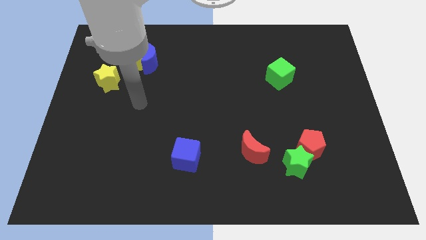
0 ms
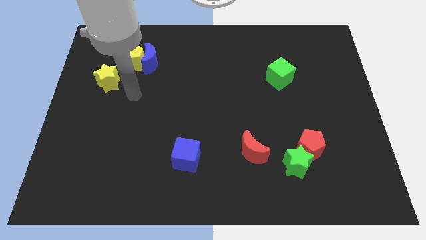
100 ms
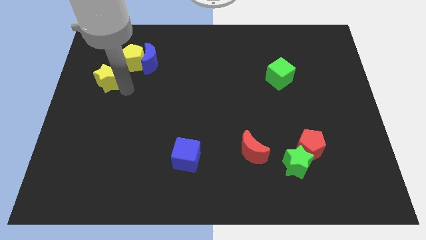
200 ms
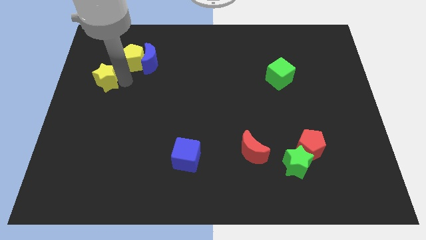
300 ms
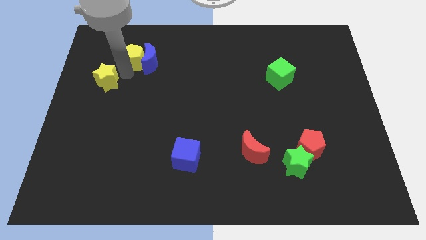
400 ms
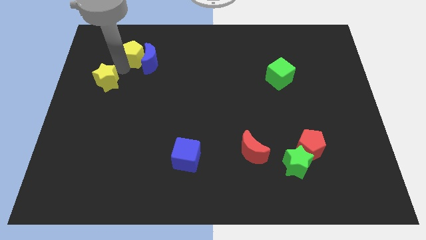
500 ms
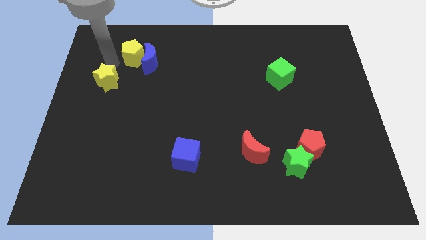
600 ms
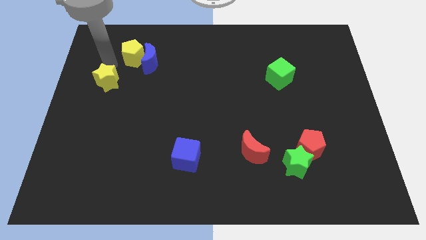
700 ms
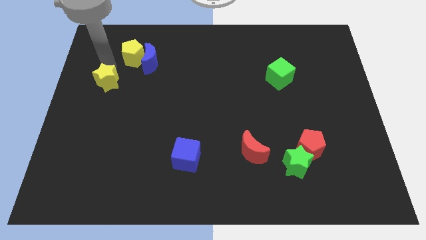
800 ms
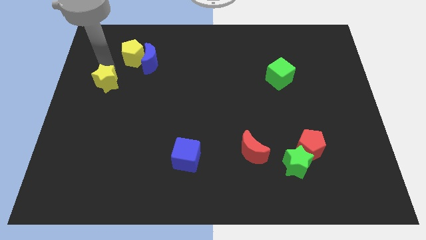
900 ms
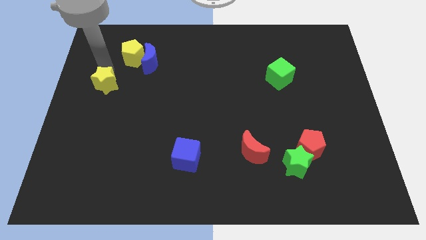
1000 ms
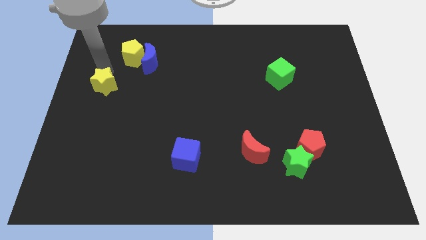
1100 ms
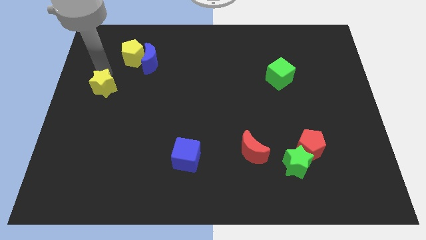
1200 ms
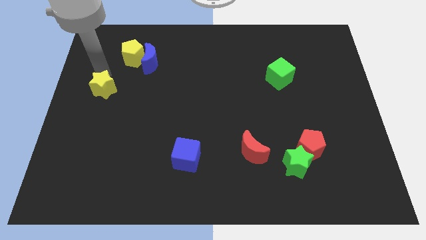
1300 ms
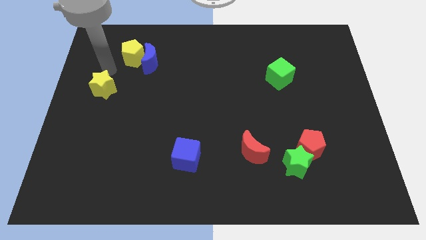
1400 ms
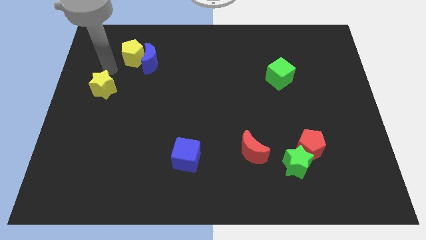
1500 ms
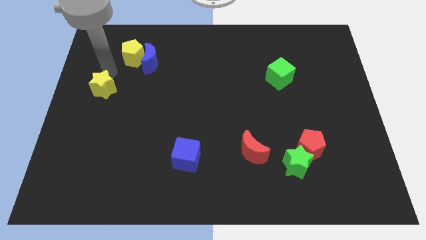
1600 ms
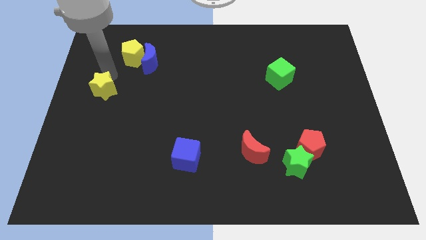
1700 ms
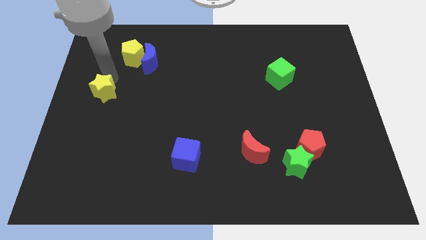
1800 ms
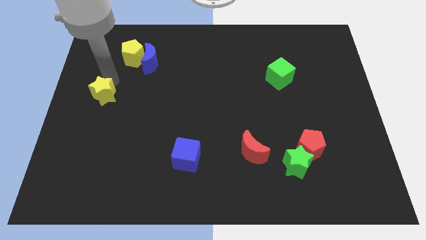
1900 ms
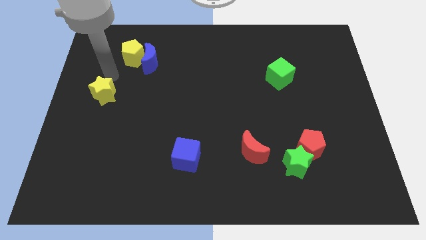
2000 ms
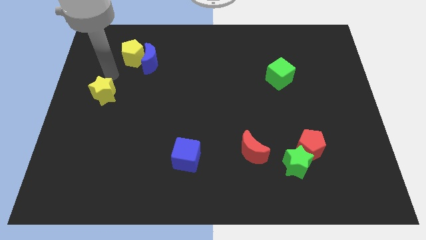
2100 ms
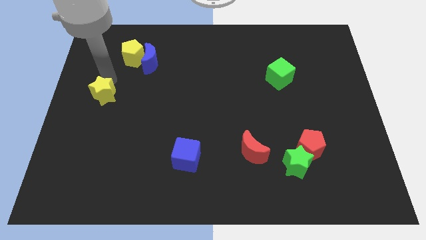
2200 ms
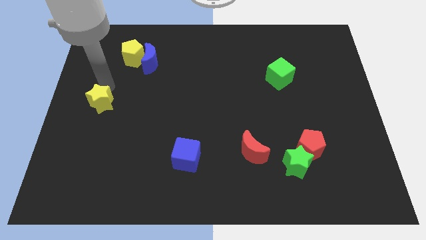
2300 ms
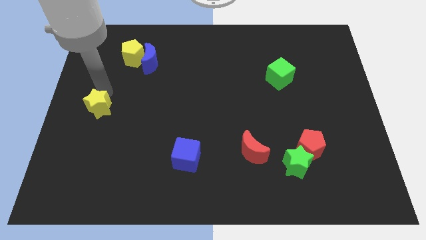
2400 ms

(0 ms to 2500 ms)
slide the yellow star slightly down

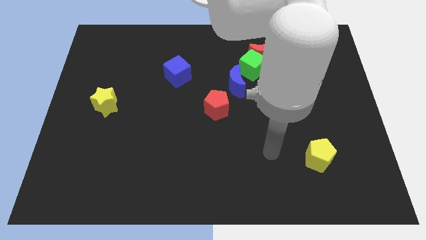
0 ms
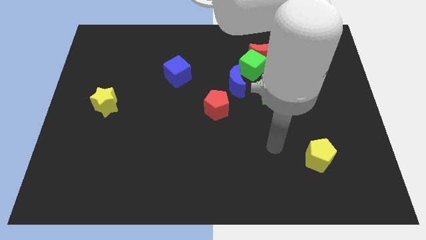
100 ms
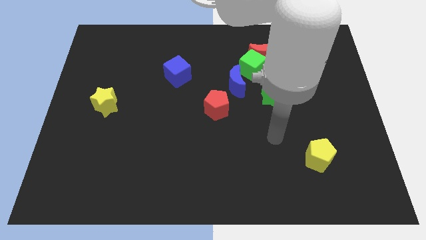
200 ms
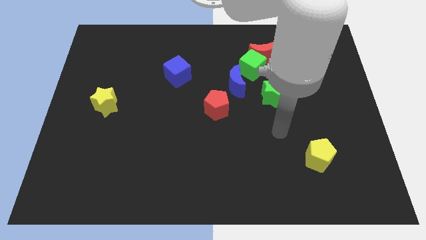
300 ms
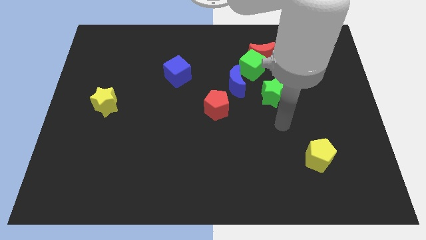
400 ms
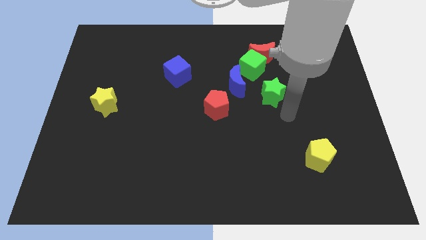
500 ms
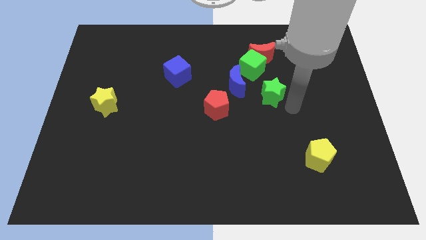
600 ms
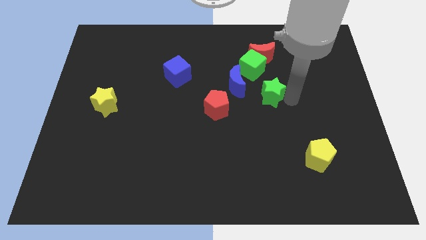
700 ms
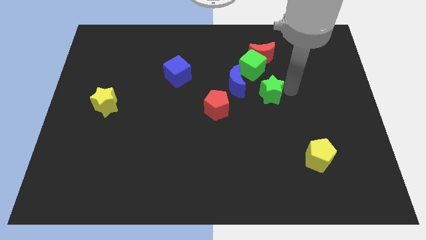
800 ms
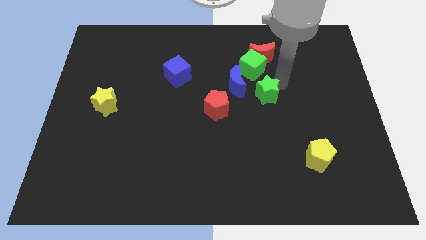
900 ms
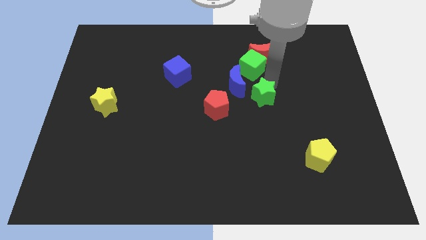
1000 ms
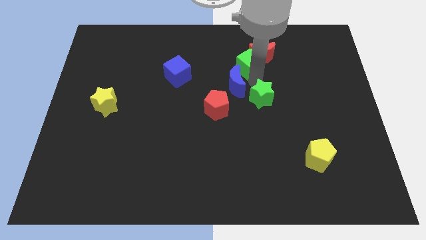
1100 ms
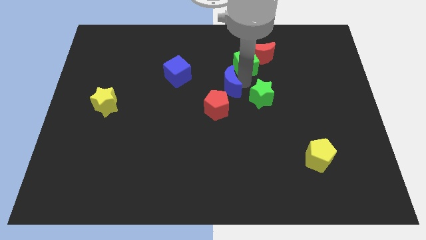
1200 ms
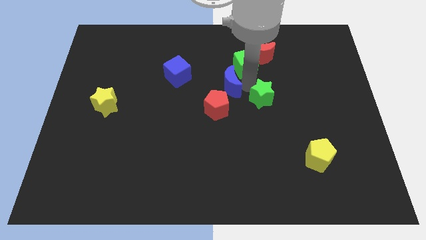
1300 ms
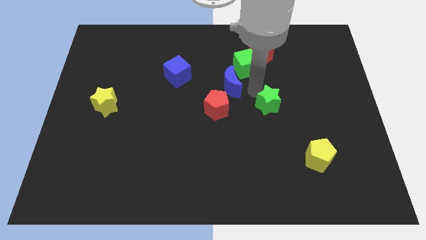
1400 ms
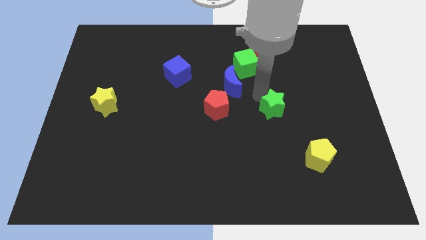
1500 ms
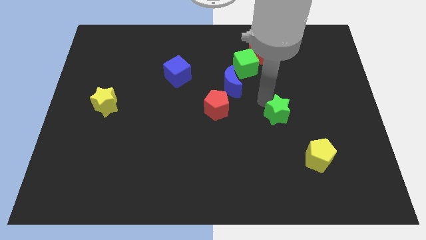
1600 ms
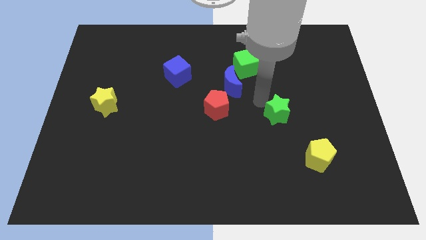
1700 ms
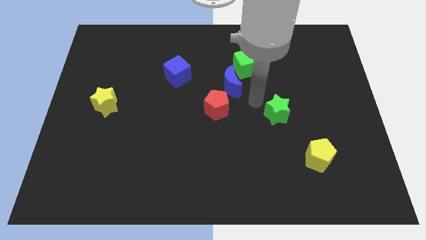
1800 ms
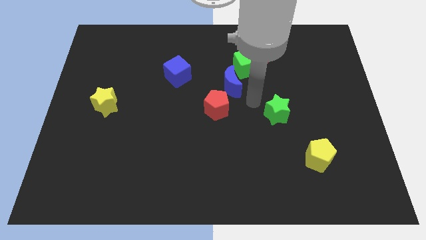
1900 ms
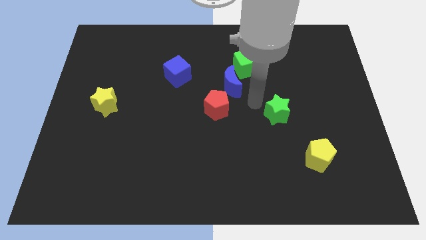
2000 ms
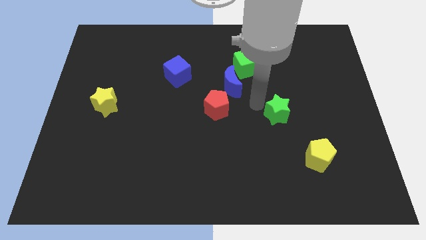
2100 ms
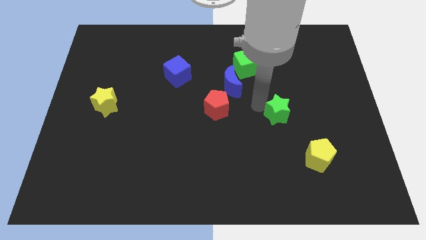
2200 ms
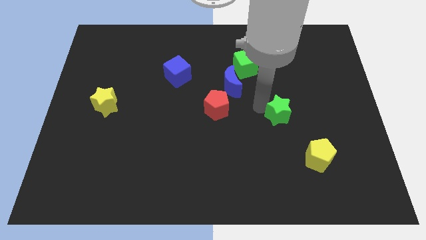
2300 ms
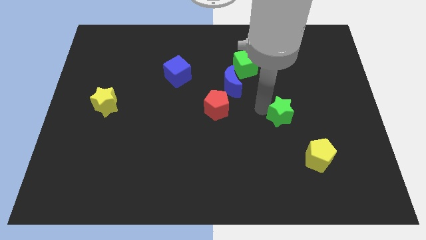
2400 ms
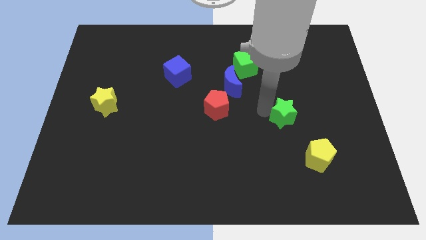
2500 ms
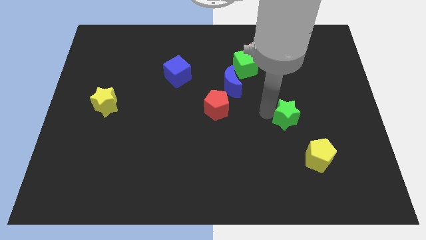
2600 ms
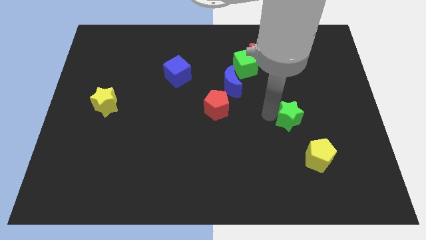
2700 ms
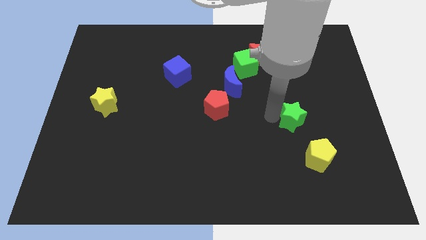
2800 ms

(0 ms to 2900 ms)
slightly push the green star downwards and then to the right

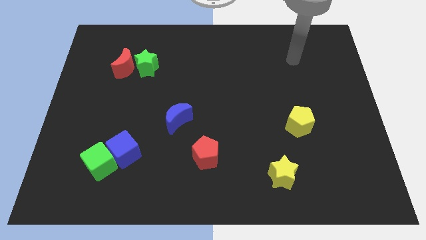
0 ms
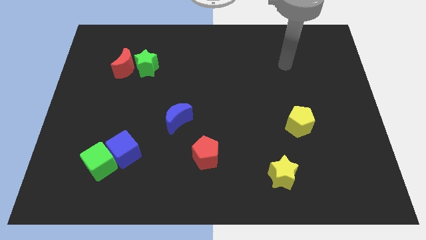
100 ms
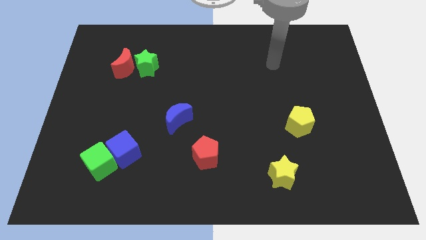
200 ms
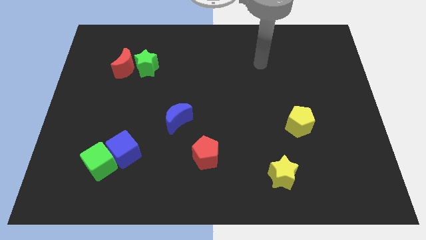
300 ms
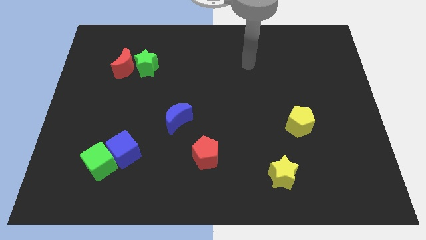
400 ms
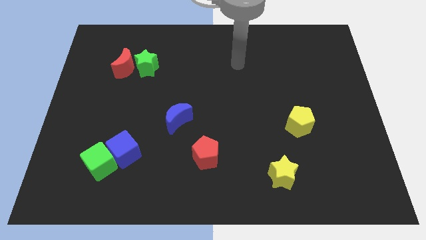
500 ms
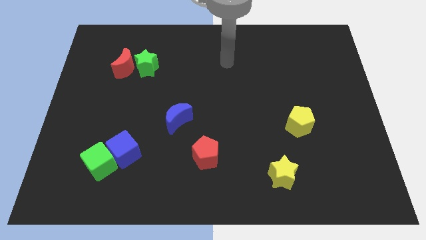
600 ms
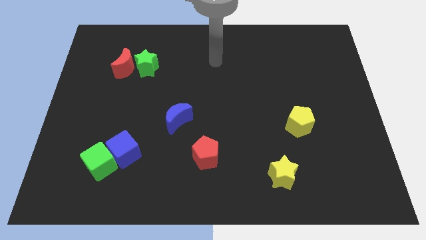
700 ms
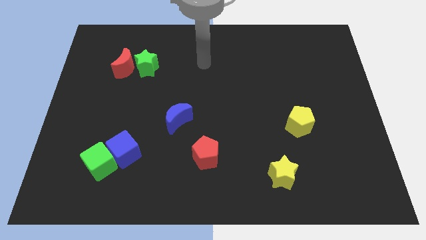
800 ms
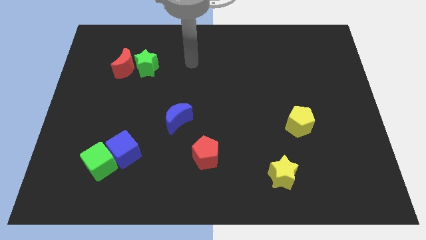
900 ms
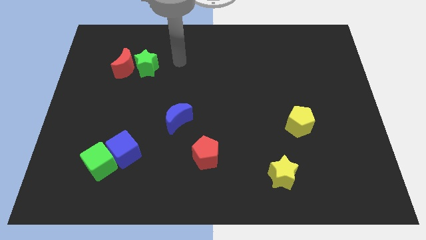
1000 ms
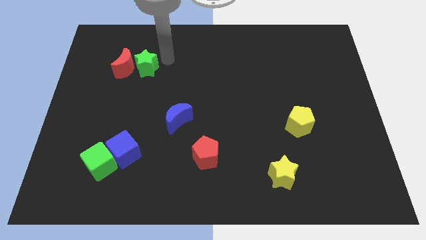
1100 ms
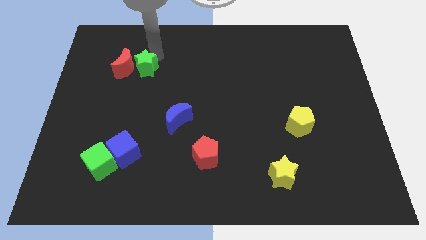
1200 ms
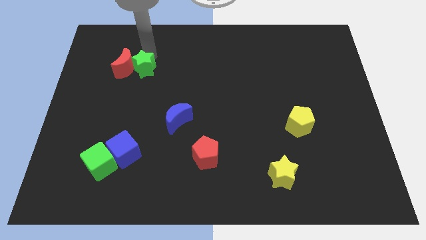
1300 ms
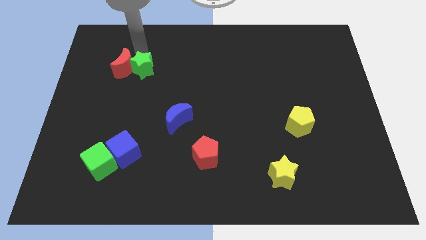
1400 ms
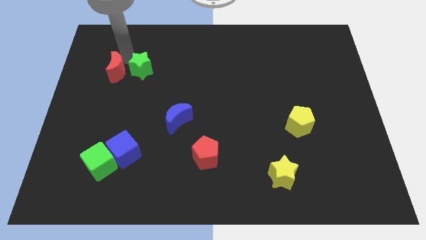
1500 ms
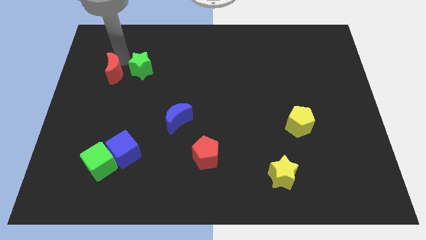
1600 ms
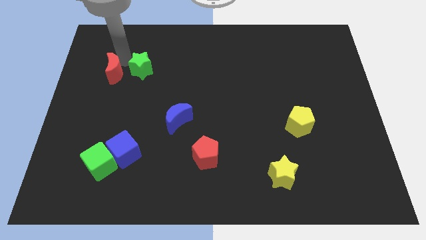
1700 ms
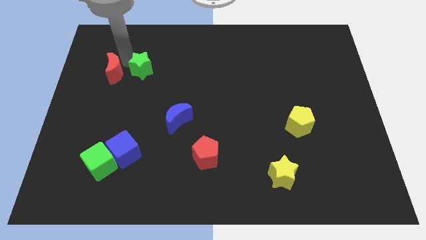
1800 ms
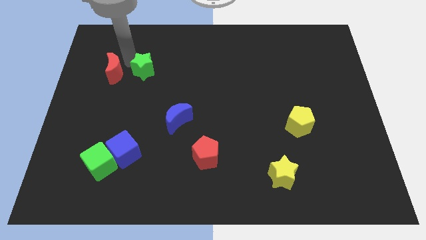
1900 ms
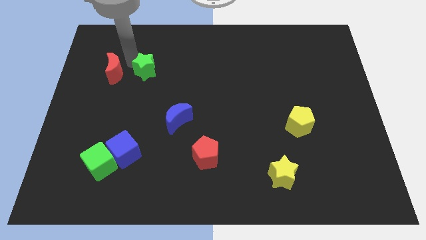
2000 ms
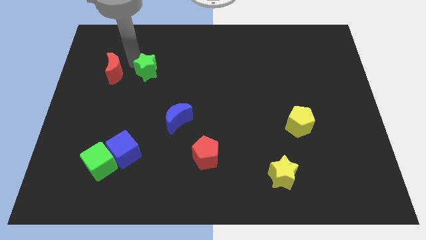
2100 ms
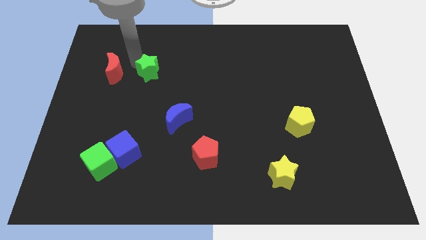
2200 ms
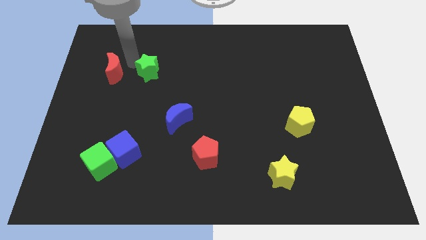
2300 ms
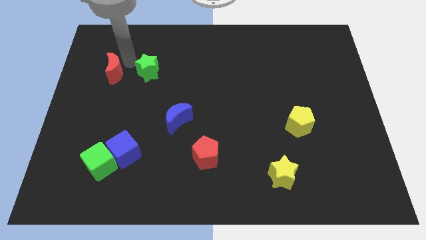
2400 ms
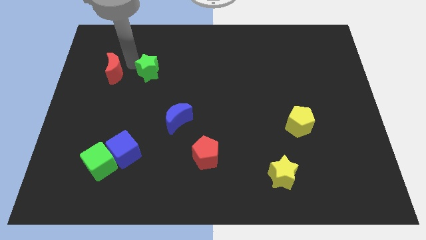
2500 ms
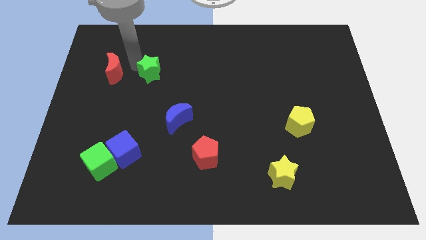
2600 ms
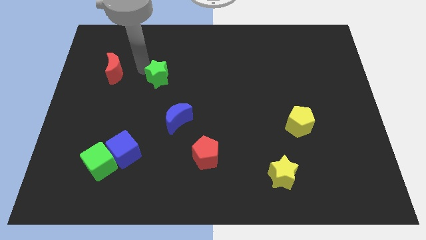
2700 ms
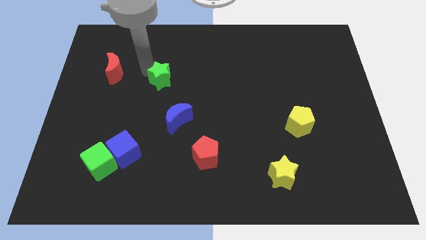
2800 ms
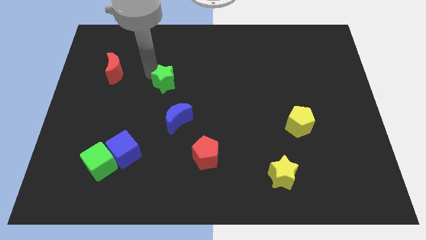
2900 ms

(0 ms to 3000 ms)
move the green star downwards and to the right diagonally somewhat
